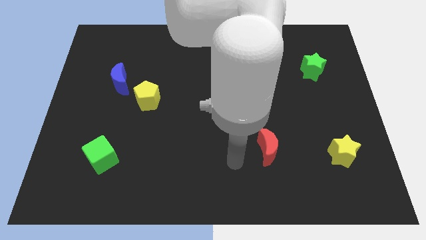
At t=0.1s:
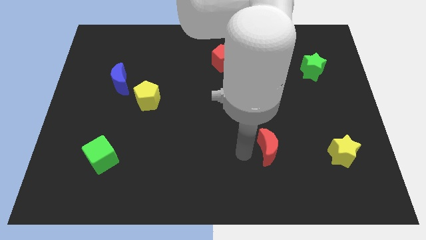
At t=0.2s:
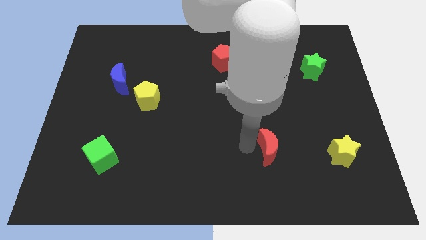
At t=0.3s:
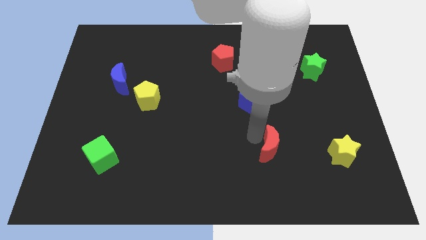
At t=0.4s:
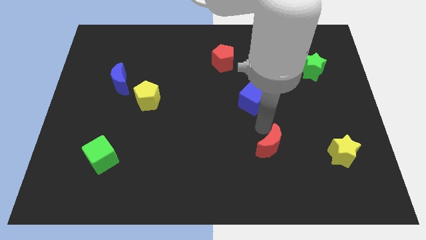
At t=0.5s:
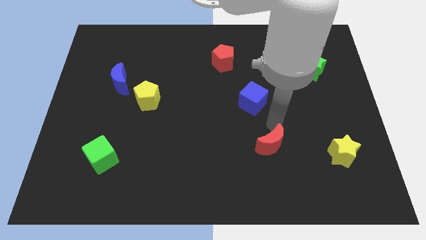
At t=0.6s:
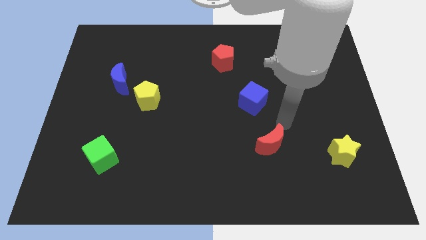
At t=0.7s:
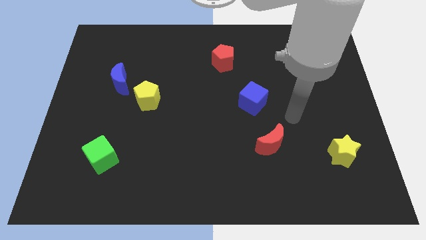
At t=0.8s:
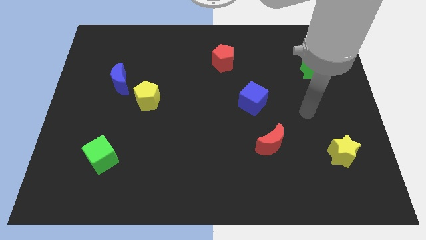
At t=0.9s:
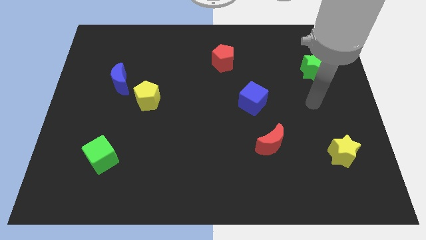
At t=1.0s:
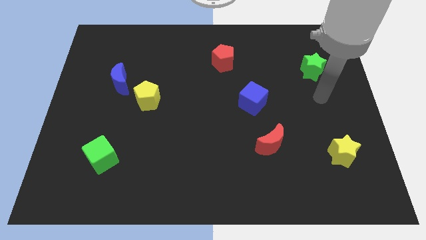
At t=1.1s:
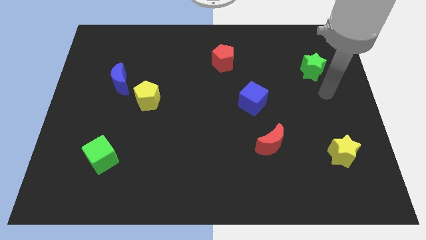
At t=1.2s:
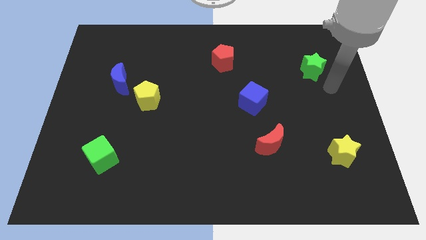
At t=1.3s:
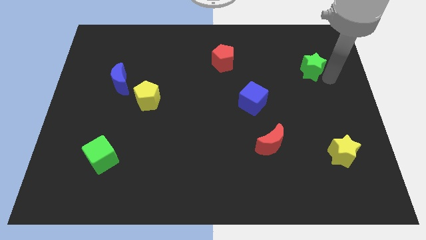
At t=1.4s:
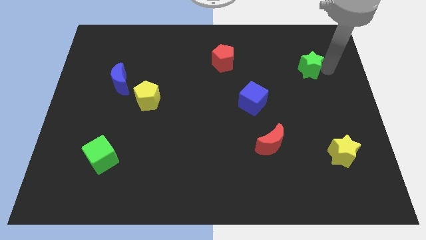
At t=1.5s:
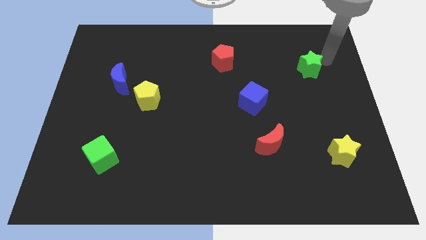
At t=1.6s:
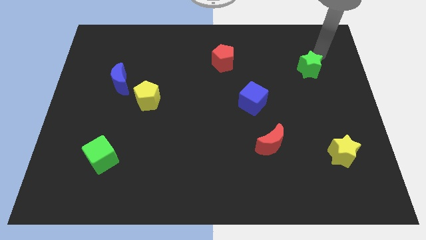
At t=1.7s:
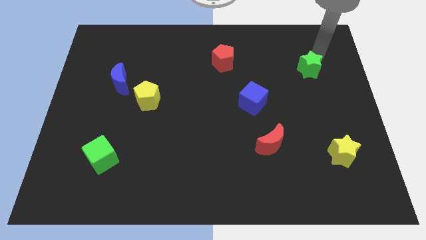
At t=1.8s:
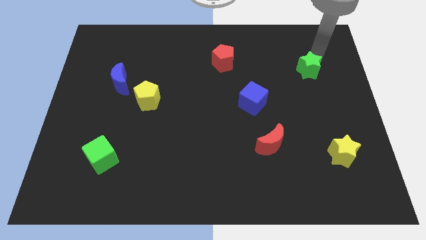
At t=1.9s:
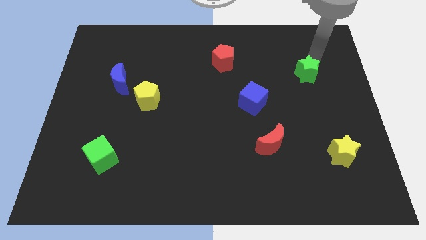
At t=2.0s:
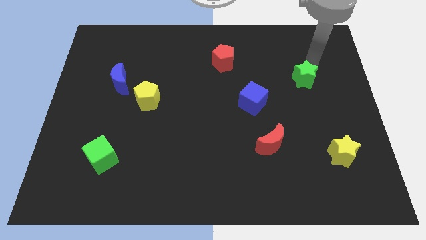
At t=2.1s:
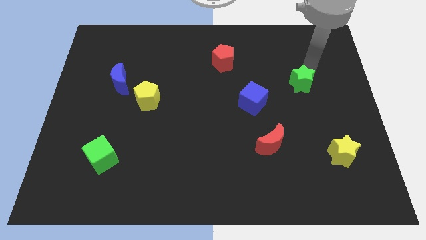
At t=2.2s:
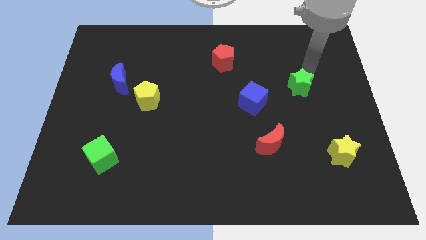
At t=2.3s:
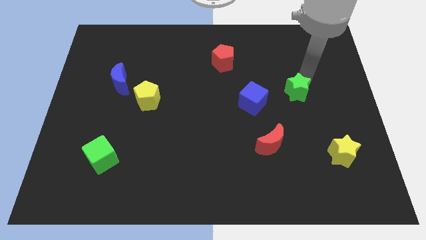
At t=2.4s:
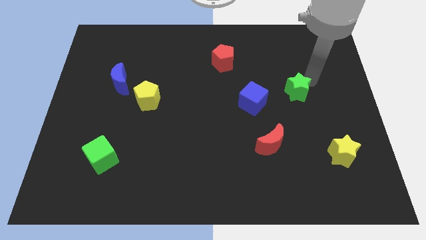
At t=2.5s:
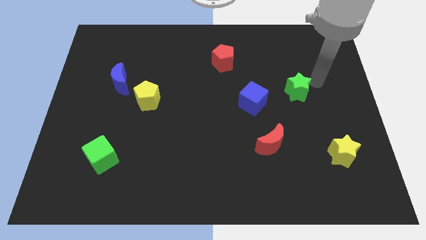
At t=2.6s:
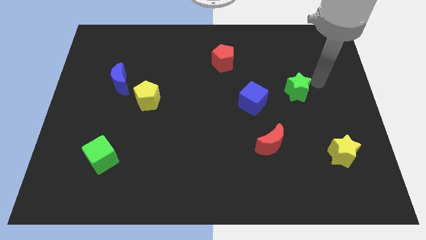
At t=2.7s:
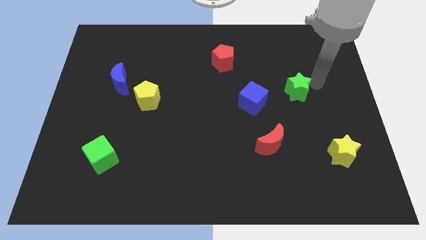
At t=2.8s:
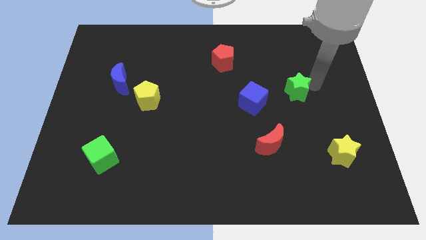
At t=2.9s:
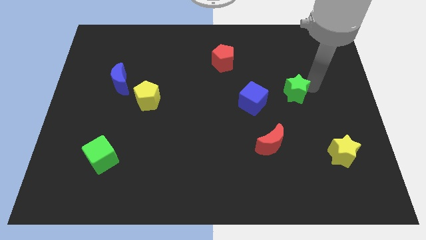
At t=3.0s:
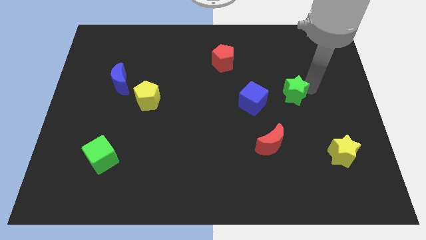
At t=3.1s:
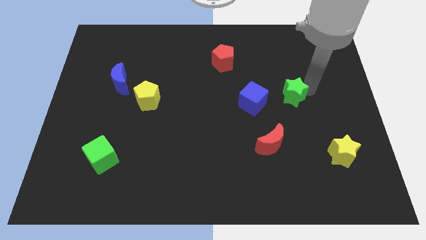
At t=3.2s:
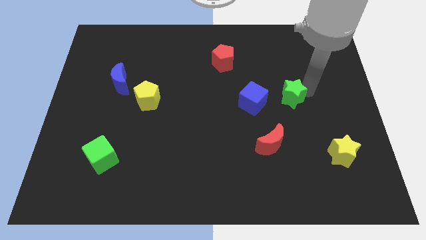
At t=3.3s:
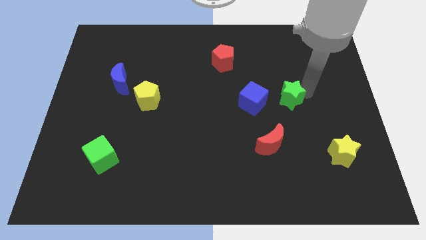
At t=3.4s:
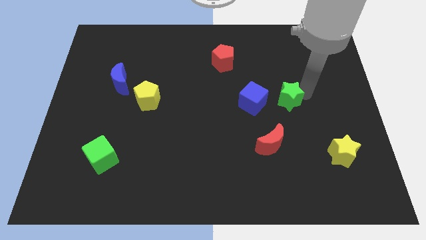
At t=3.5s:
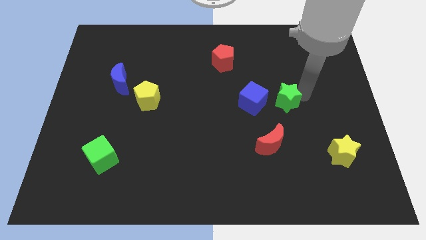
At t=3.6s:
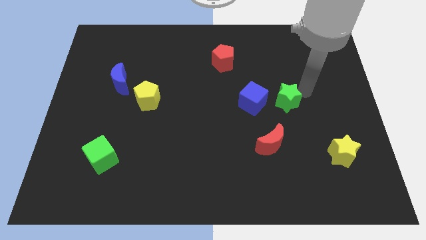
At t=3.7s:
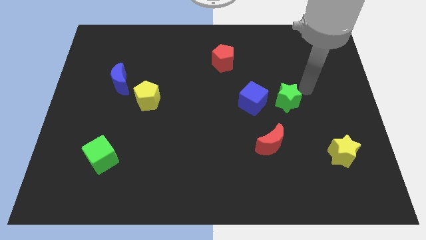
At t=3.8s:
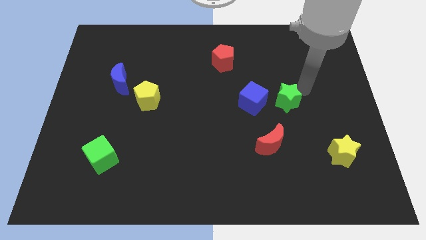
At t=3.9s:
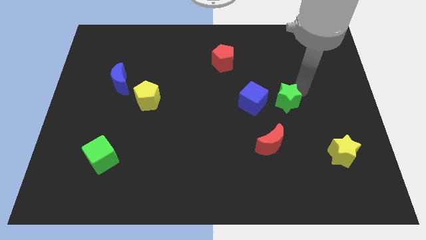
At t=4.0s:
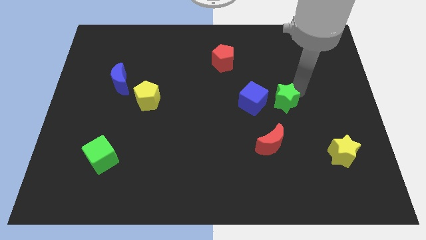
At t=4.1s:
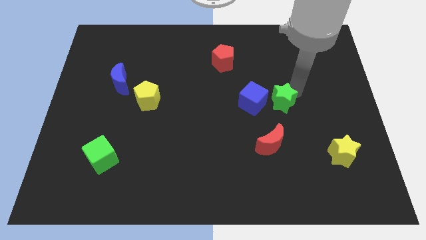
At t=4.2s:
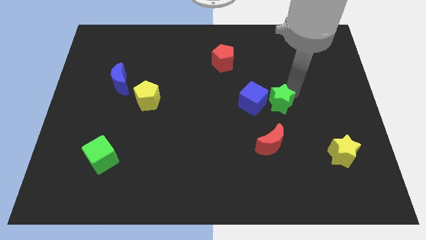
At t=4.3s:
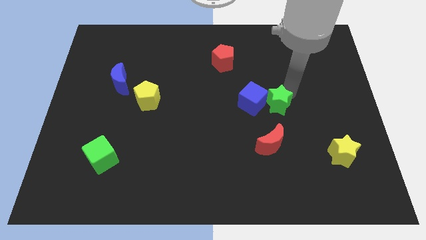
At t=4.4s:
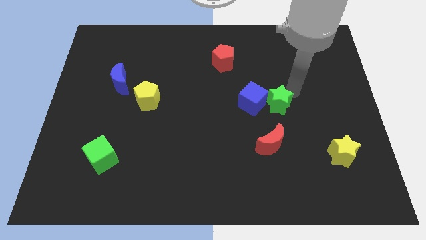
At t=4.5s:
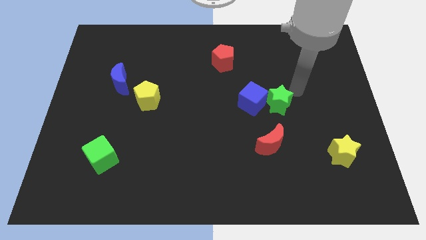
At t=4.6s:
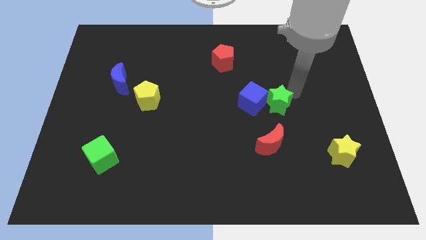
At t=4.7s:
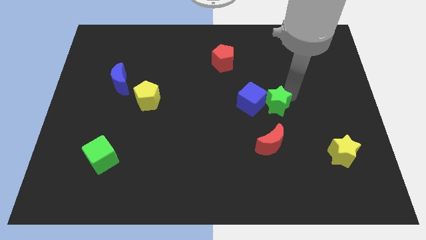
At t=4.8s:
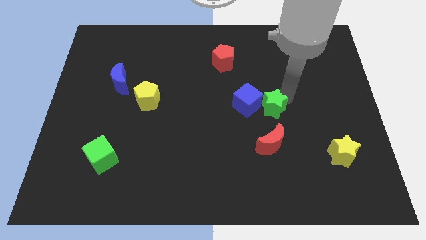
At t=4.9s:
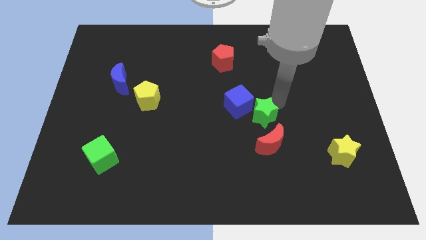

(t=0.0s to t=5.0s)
move the green star diagonally downwards and to the left

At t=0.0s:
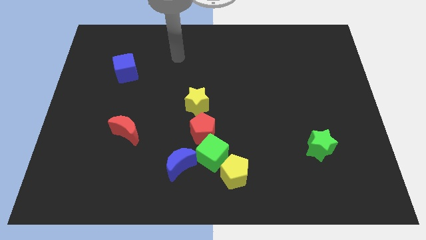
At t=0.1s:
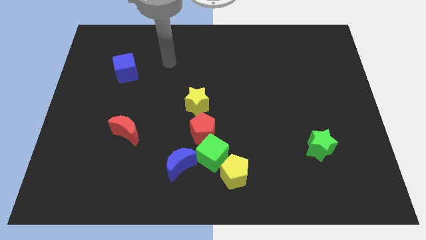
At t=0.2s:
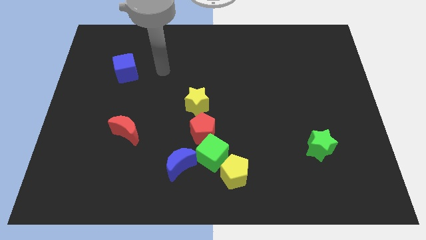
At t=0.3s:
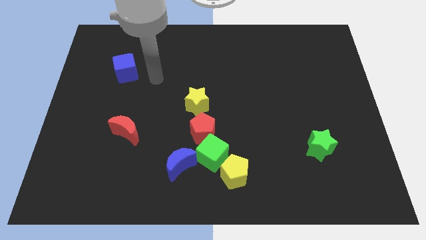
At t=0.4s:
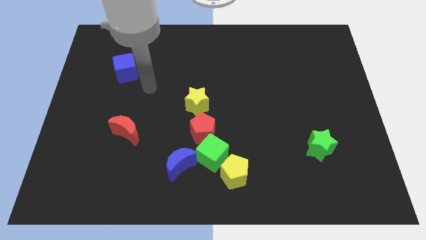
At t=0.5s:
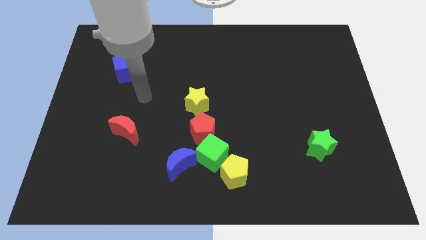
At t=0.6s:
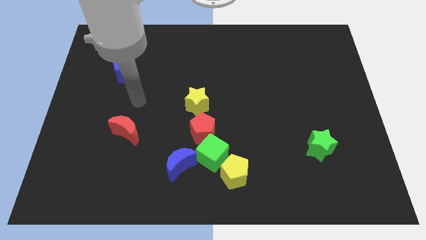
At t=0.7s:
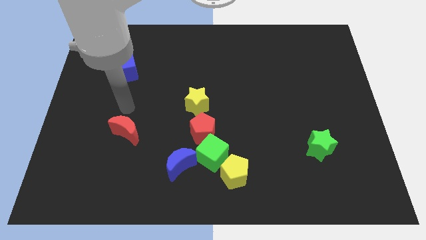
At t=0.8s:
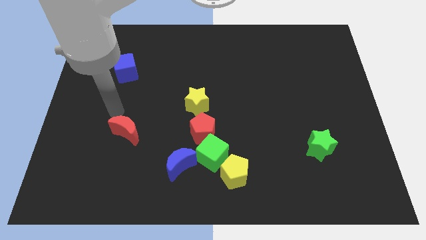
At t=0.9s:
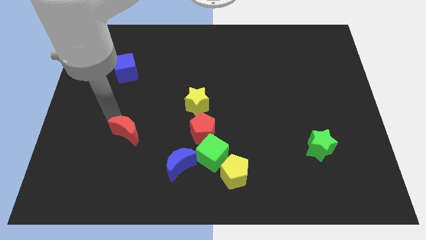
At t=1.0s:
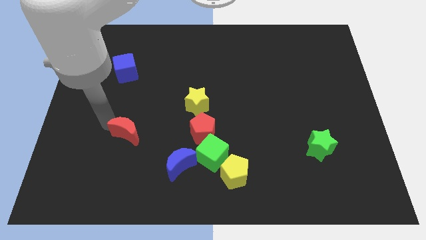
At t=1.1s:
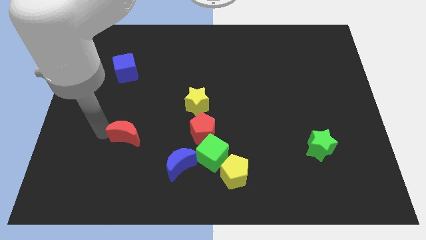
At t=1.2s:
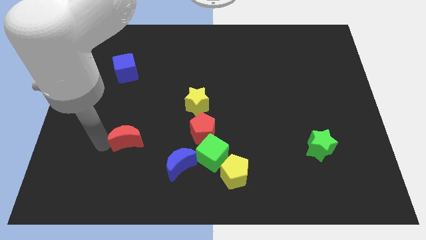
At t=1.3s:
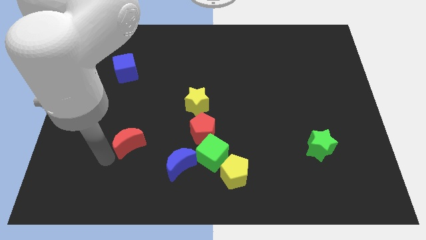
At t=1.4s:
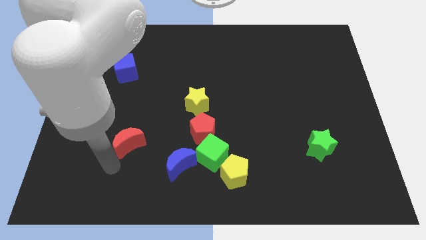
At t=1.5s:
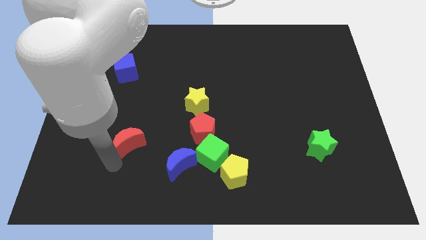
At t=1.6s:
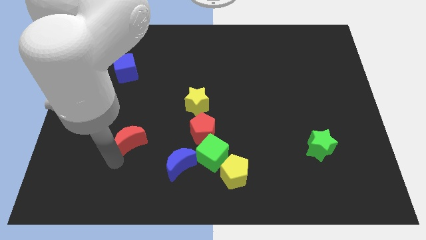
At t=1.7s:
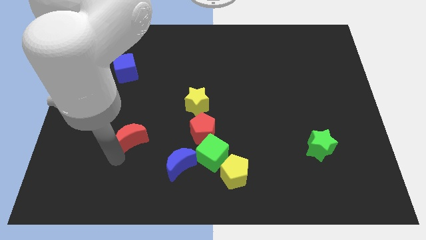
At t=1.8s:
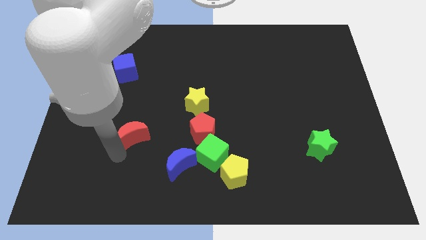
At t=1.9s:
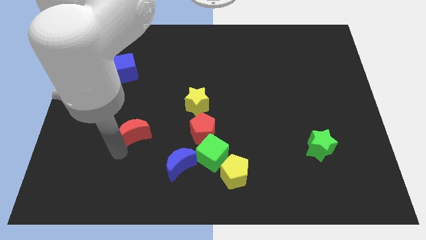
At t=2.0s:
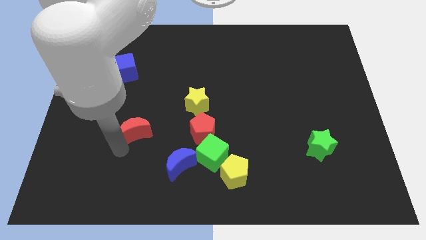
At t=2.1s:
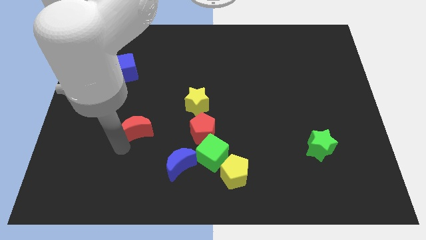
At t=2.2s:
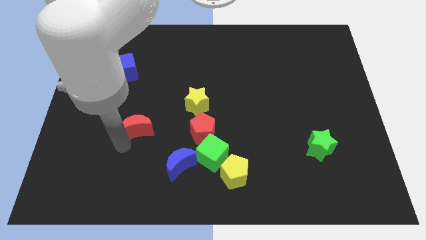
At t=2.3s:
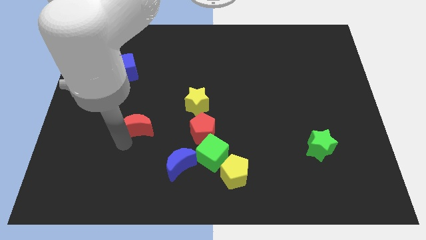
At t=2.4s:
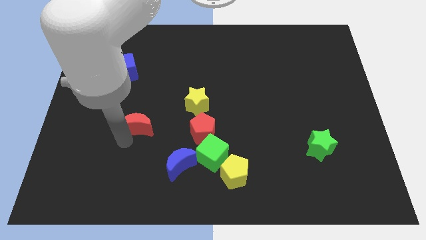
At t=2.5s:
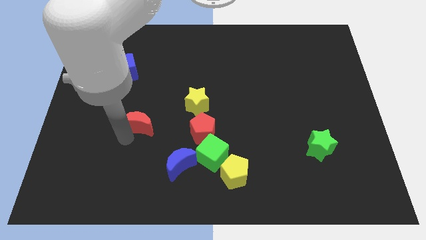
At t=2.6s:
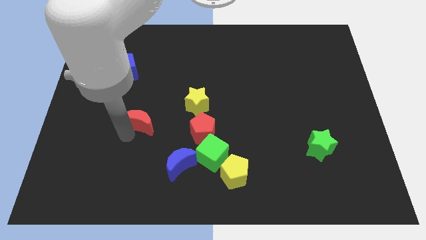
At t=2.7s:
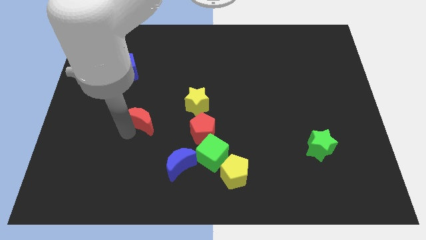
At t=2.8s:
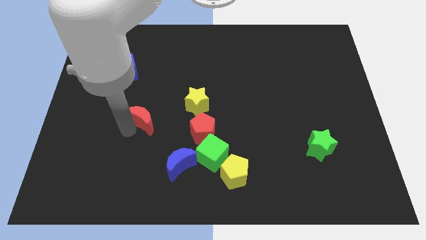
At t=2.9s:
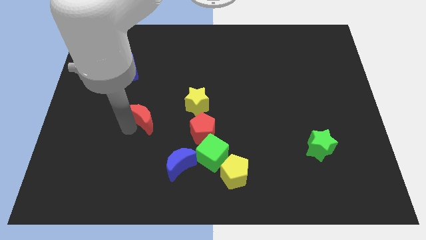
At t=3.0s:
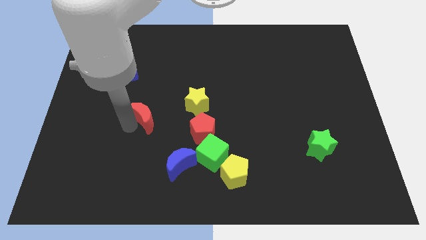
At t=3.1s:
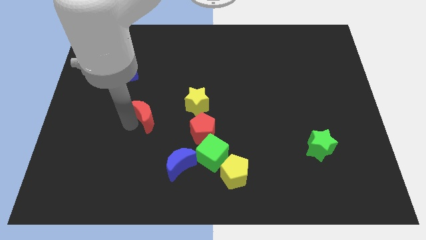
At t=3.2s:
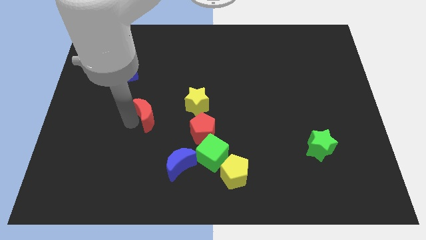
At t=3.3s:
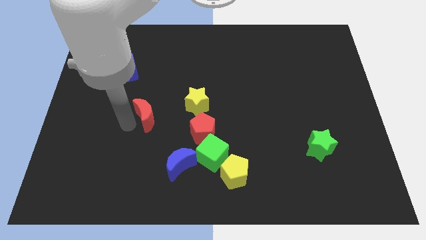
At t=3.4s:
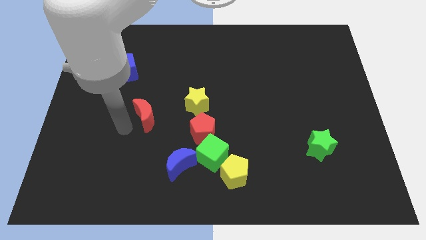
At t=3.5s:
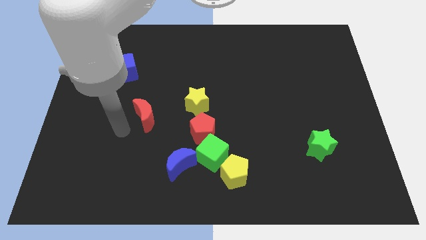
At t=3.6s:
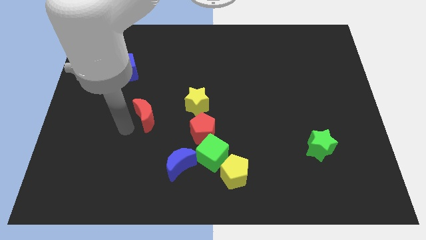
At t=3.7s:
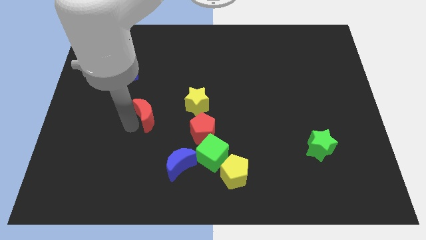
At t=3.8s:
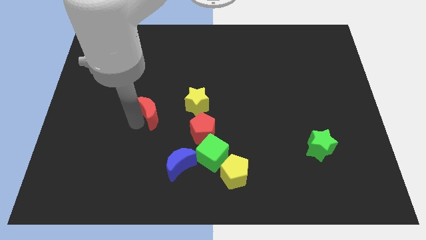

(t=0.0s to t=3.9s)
push the red moon a little up and to the right
